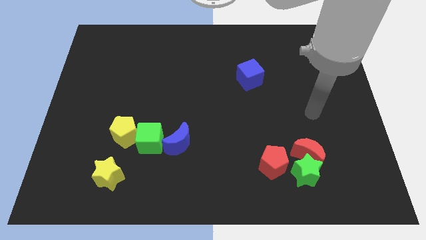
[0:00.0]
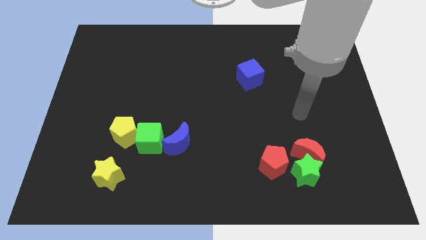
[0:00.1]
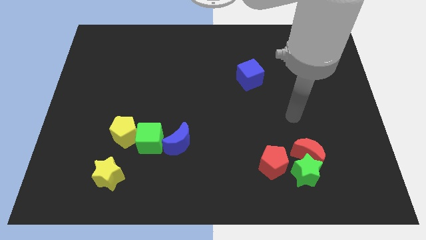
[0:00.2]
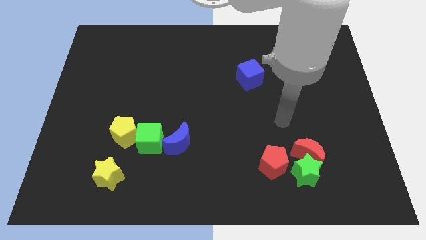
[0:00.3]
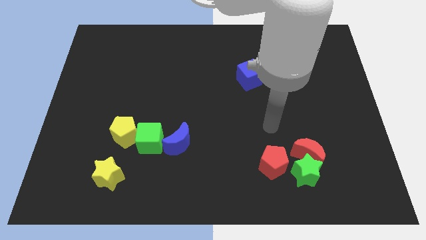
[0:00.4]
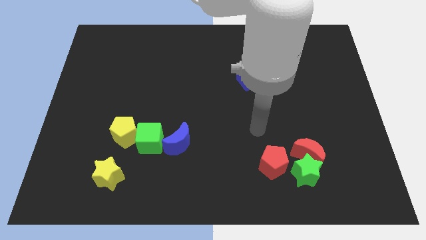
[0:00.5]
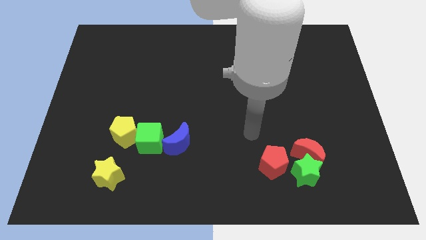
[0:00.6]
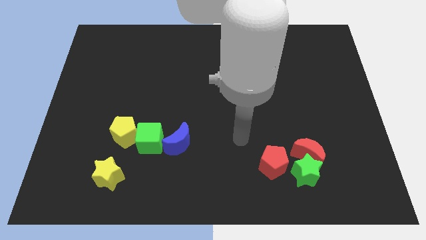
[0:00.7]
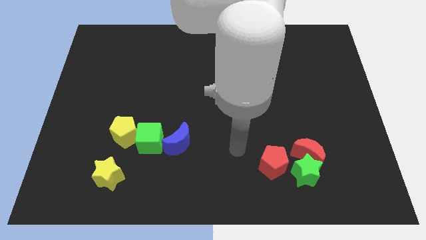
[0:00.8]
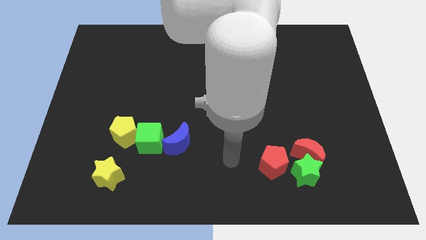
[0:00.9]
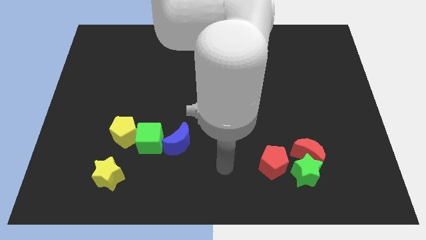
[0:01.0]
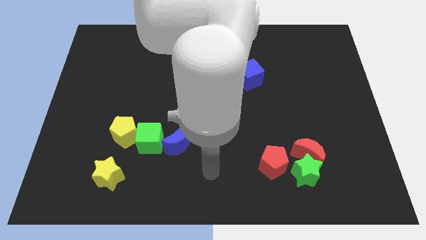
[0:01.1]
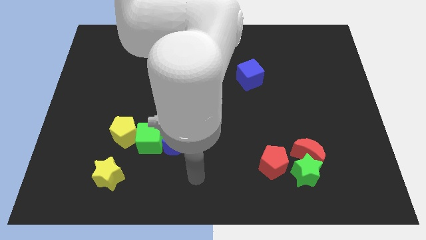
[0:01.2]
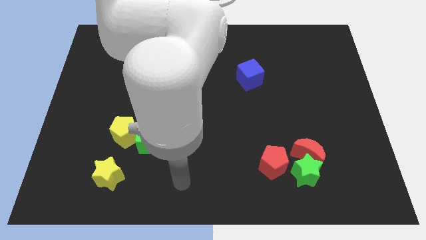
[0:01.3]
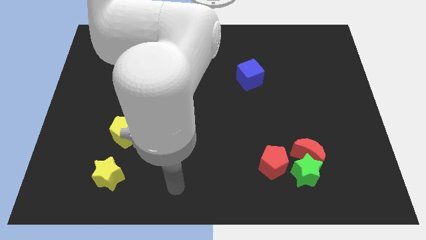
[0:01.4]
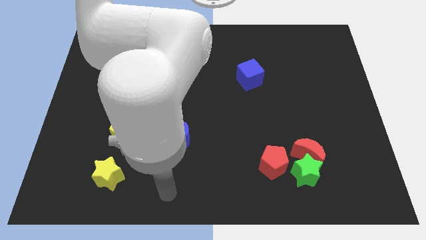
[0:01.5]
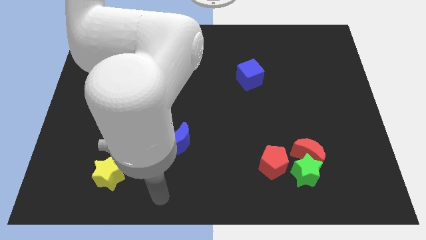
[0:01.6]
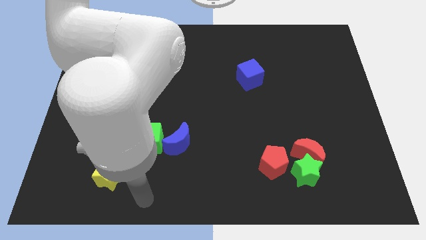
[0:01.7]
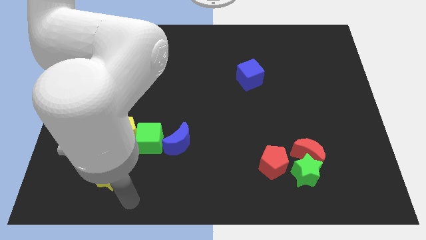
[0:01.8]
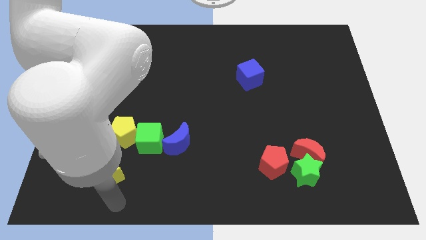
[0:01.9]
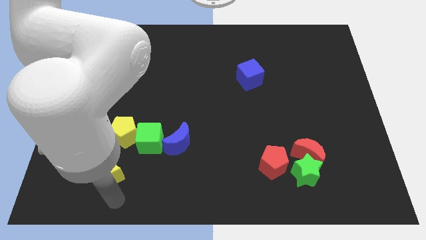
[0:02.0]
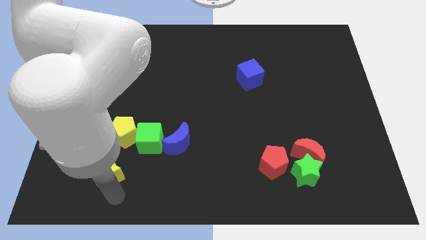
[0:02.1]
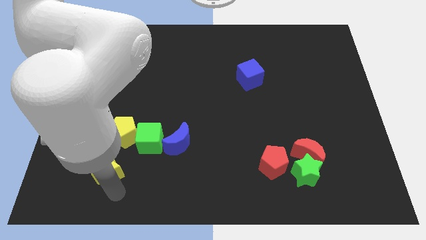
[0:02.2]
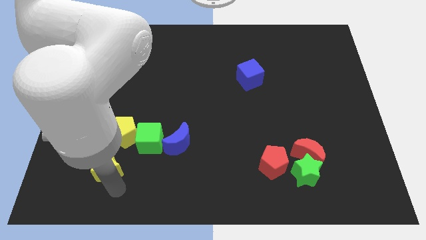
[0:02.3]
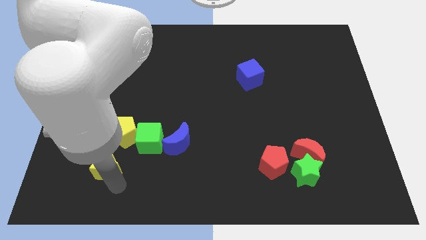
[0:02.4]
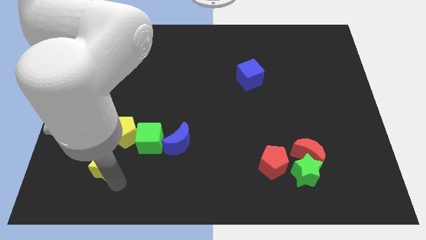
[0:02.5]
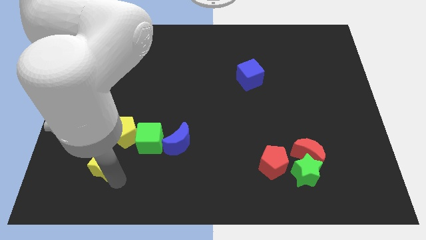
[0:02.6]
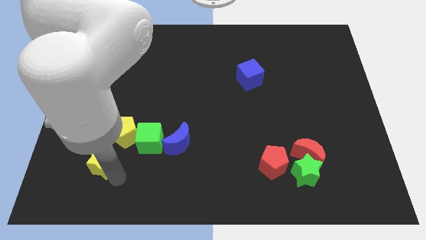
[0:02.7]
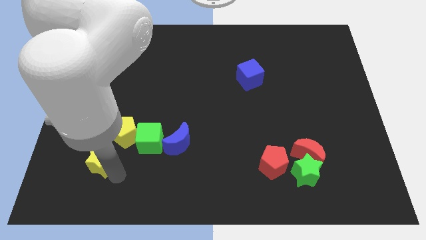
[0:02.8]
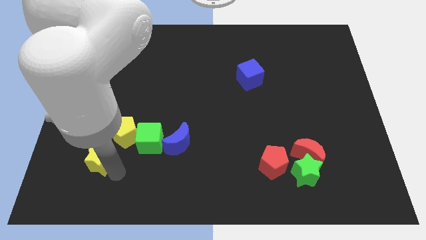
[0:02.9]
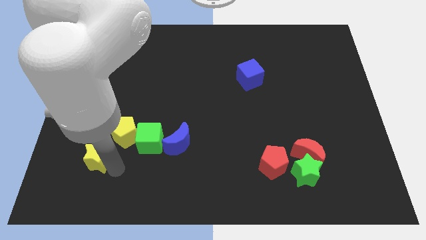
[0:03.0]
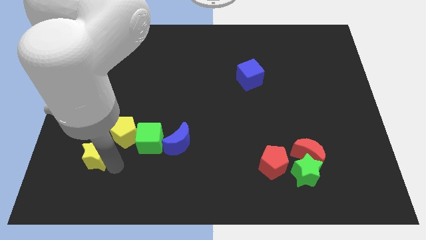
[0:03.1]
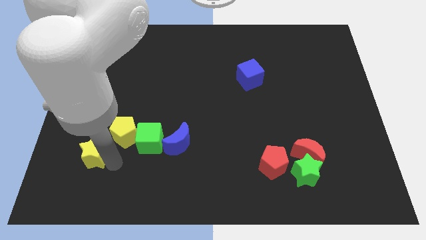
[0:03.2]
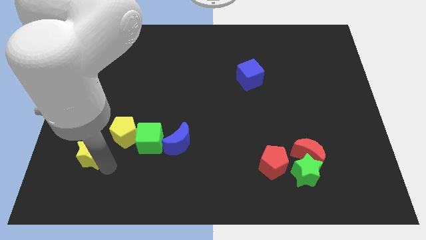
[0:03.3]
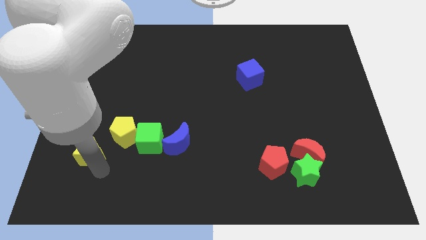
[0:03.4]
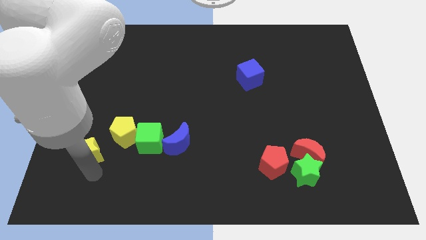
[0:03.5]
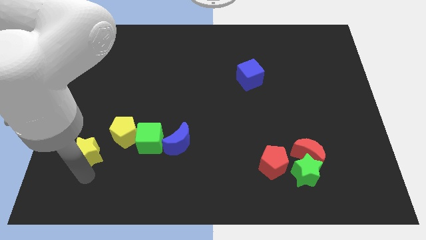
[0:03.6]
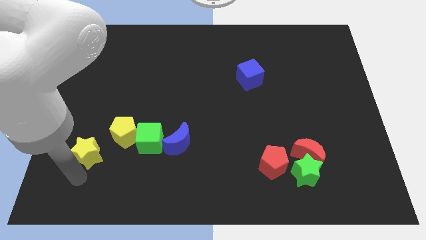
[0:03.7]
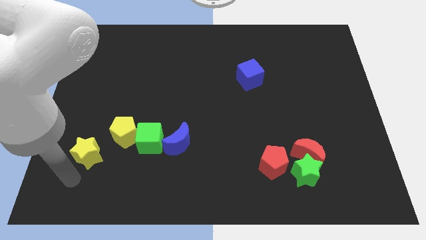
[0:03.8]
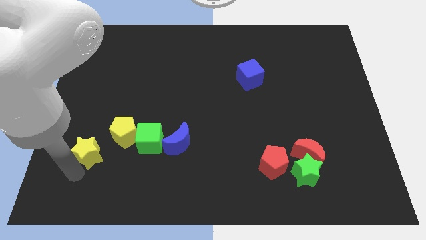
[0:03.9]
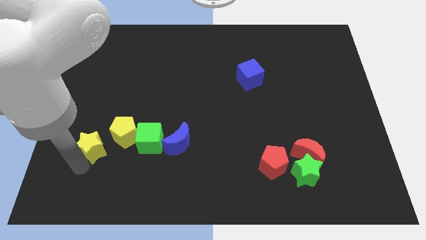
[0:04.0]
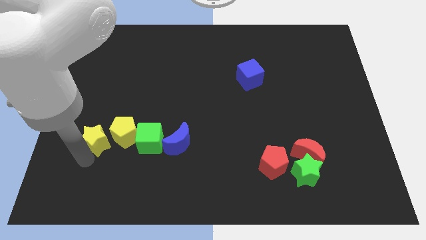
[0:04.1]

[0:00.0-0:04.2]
move the yellow star upwards a little

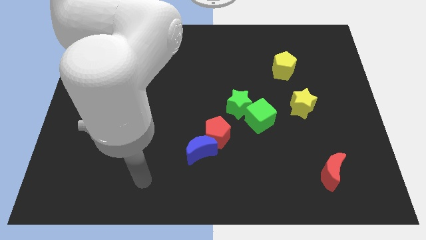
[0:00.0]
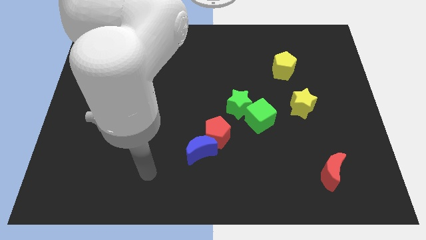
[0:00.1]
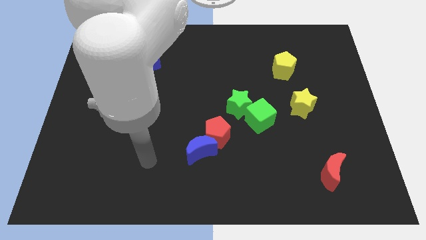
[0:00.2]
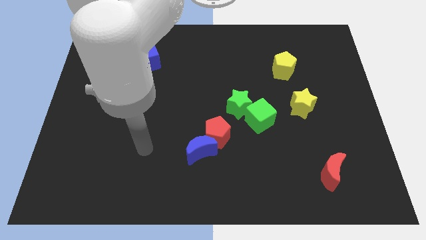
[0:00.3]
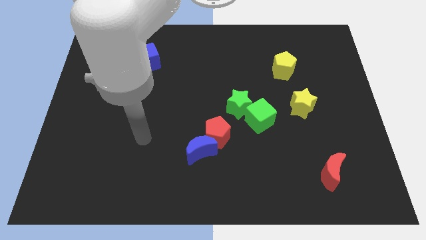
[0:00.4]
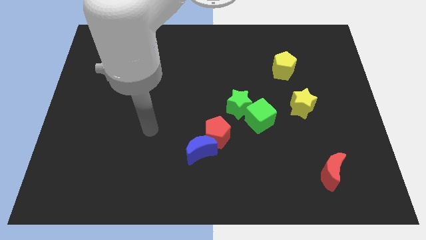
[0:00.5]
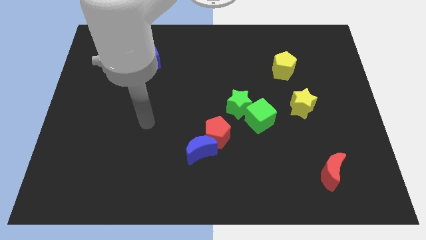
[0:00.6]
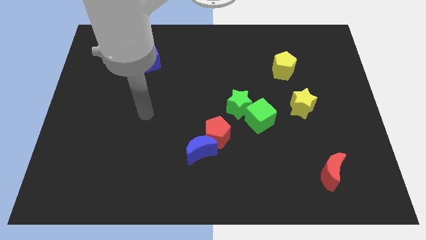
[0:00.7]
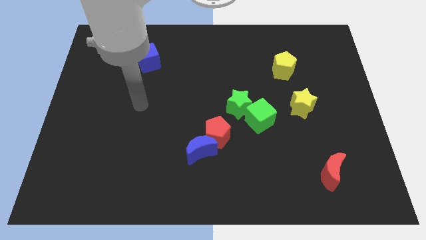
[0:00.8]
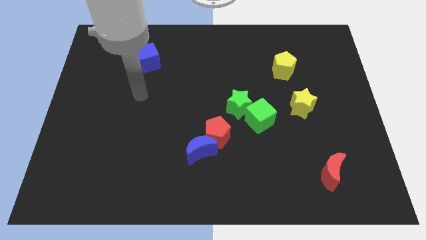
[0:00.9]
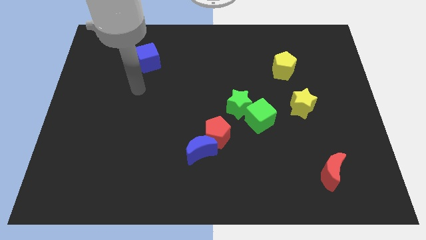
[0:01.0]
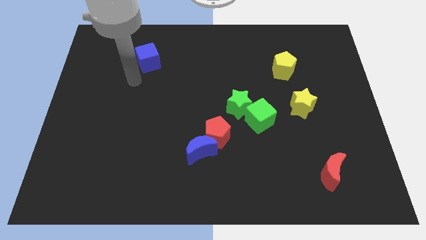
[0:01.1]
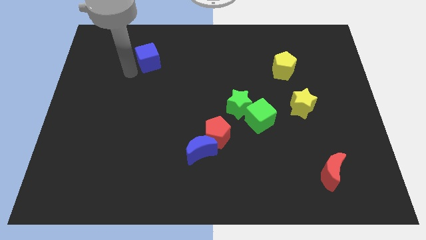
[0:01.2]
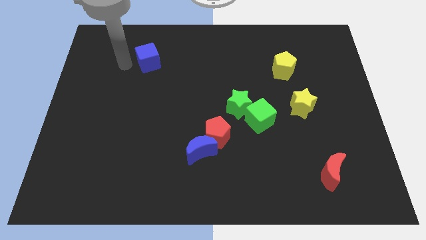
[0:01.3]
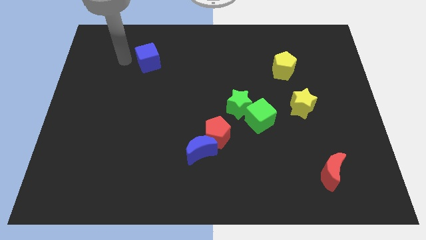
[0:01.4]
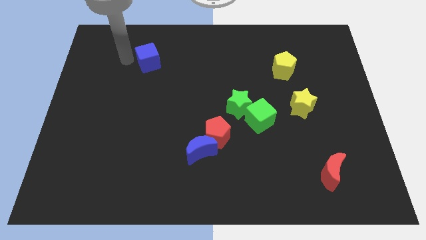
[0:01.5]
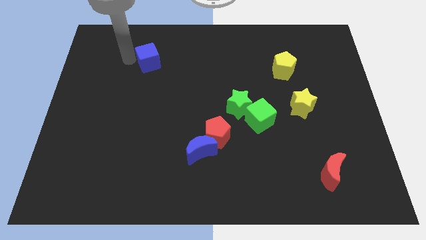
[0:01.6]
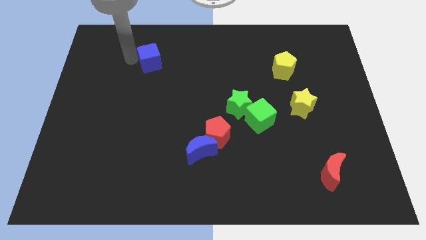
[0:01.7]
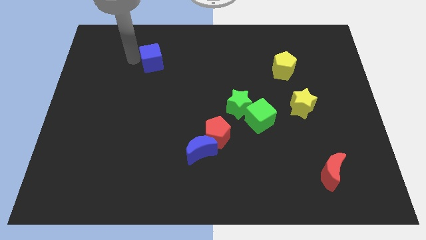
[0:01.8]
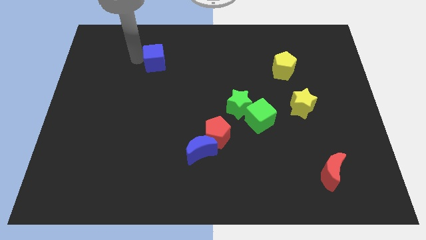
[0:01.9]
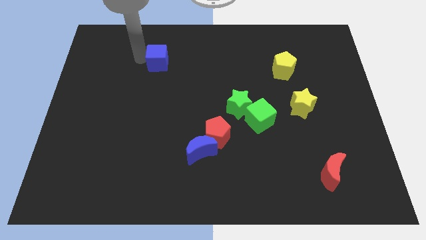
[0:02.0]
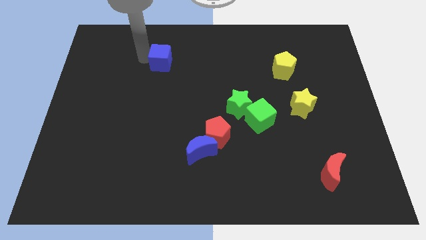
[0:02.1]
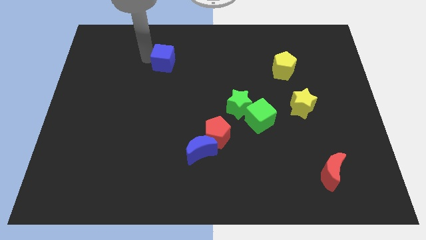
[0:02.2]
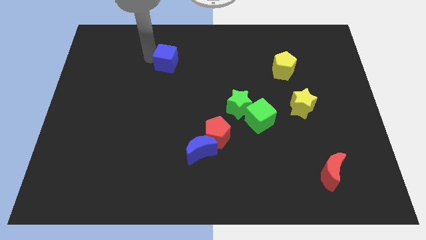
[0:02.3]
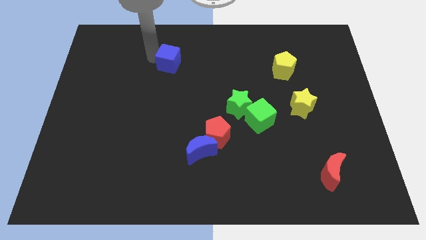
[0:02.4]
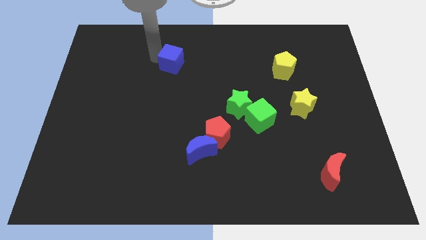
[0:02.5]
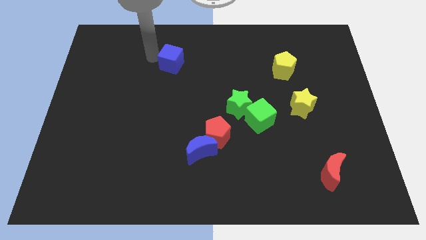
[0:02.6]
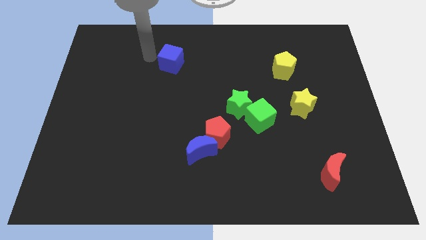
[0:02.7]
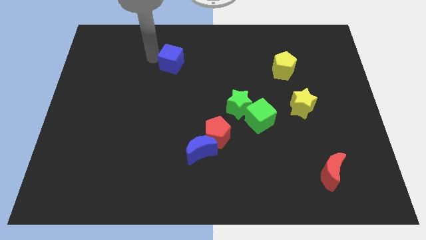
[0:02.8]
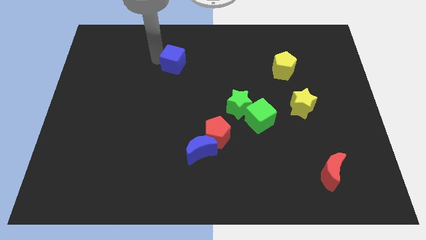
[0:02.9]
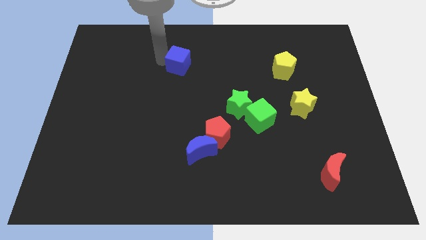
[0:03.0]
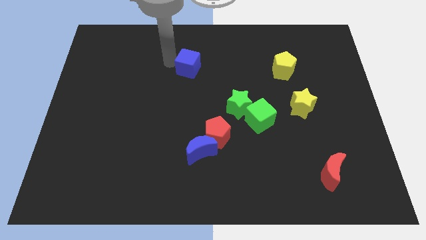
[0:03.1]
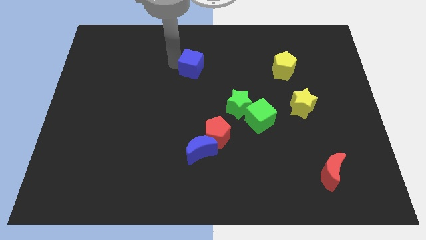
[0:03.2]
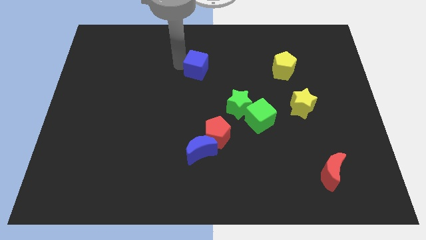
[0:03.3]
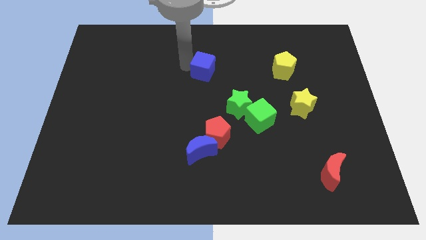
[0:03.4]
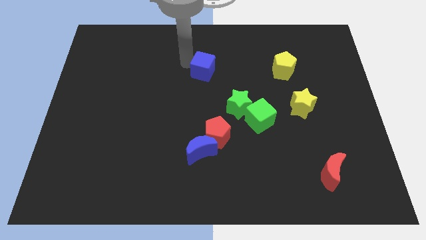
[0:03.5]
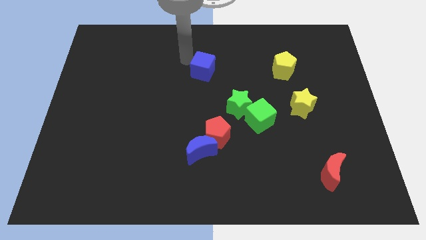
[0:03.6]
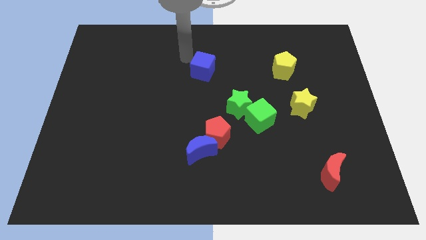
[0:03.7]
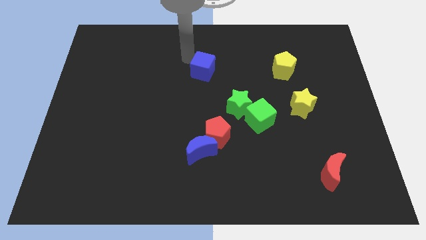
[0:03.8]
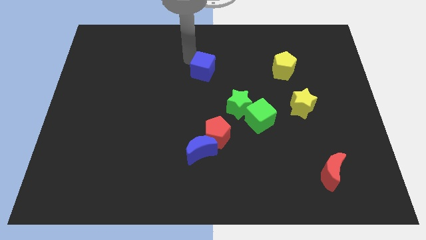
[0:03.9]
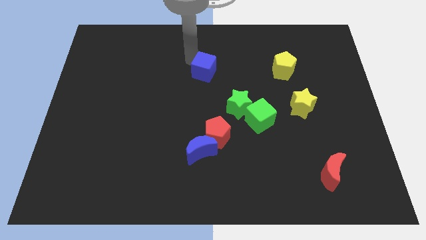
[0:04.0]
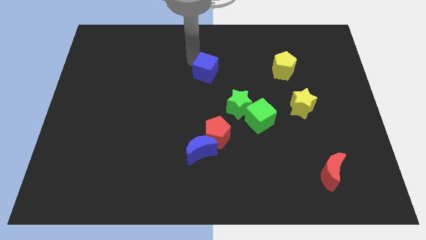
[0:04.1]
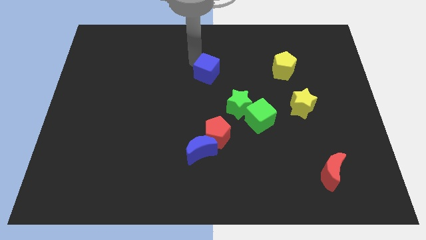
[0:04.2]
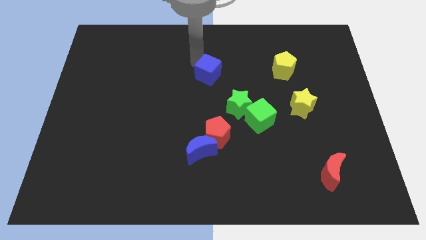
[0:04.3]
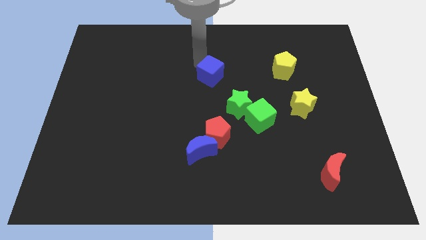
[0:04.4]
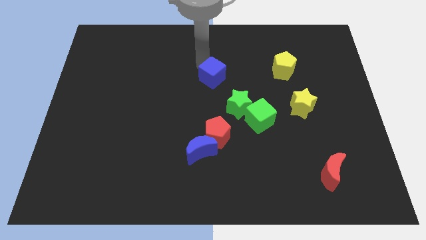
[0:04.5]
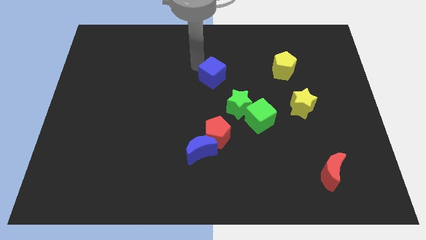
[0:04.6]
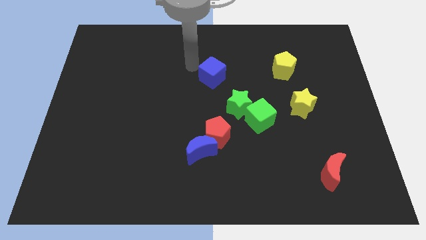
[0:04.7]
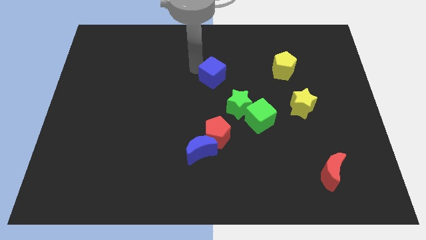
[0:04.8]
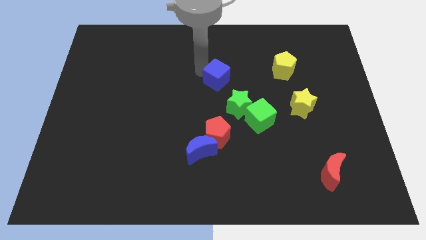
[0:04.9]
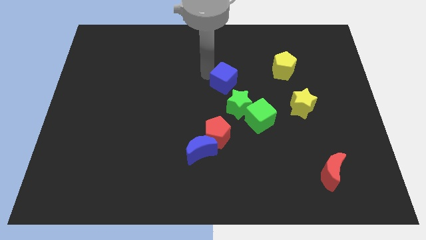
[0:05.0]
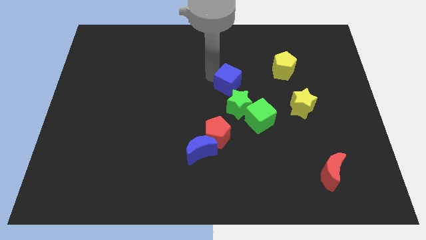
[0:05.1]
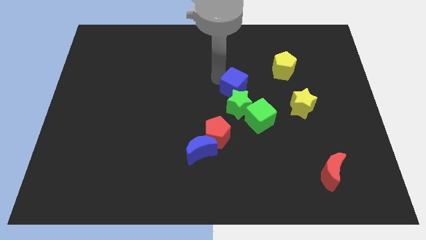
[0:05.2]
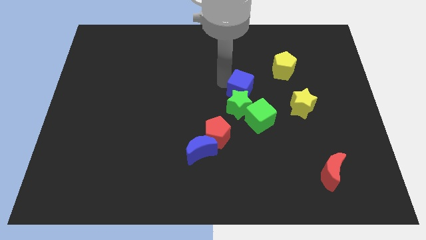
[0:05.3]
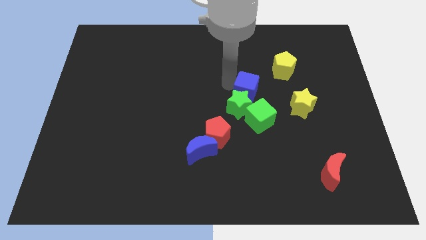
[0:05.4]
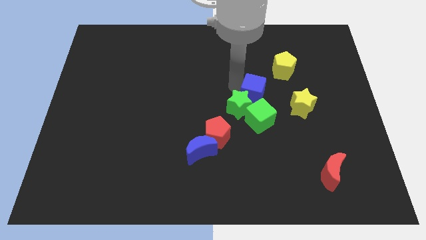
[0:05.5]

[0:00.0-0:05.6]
slide the blue cube down and right diagonally
